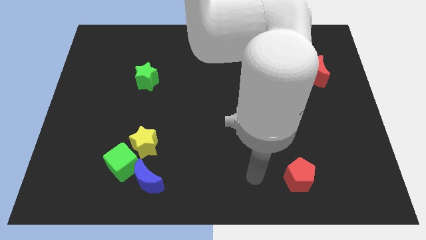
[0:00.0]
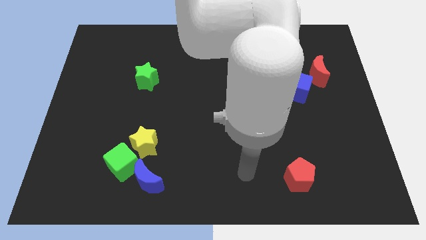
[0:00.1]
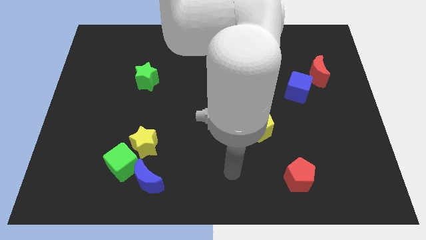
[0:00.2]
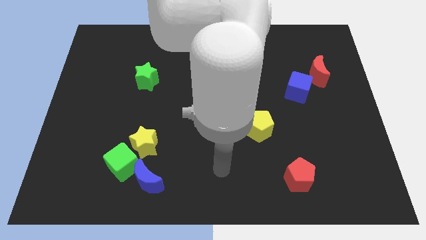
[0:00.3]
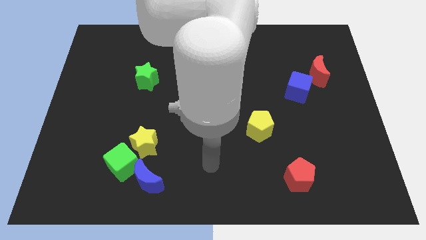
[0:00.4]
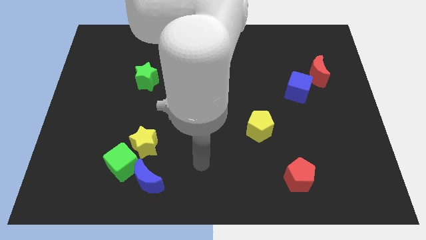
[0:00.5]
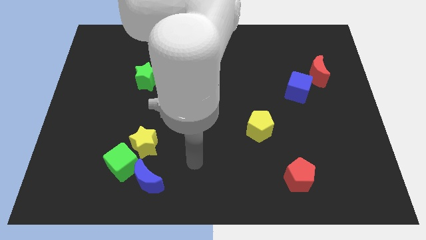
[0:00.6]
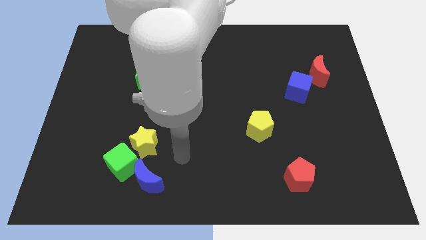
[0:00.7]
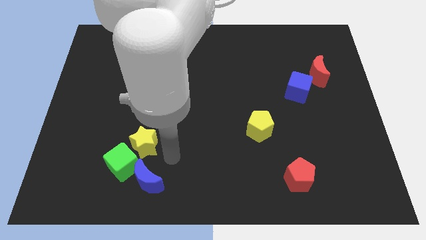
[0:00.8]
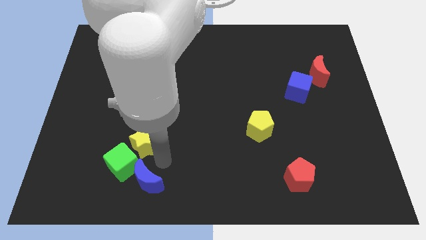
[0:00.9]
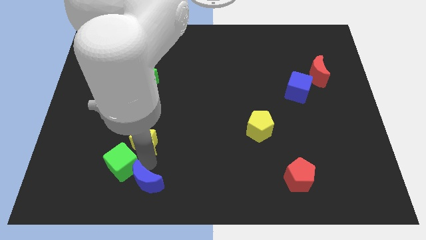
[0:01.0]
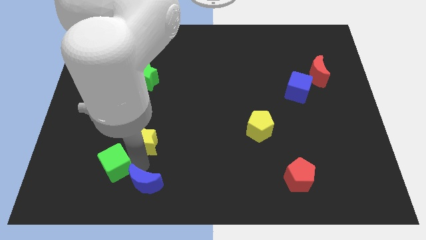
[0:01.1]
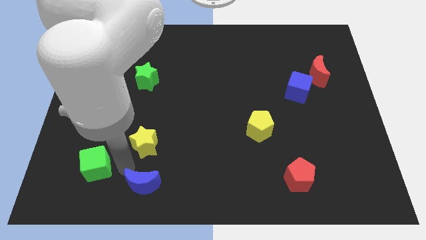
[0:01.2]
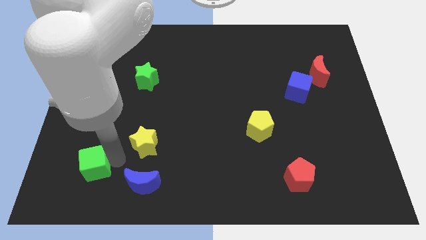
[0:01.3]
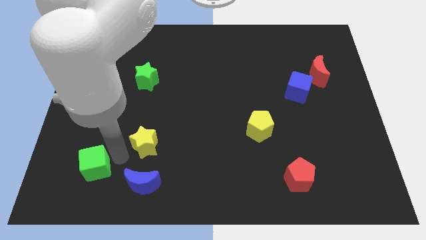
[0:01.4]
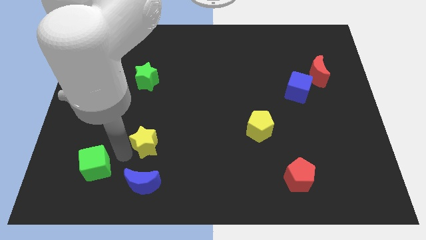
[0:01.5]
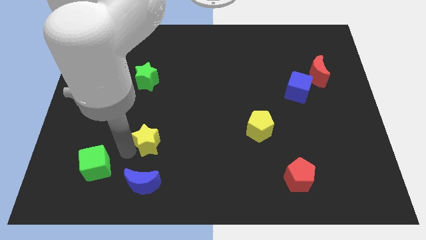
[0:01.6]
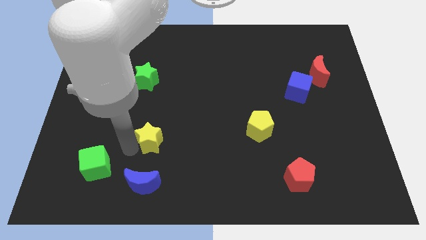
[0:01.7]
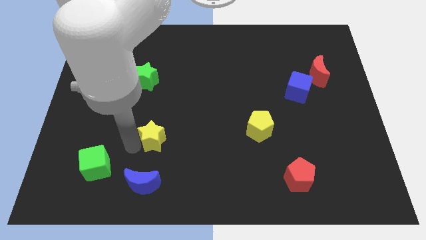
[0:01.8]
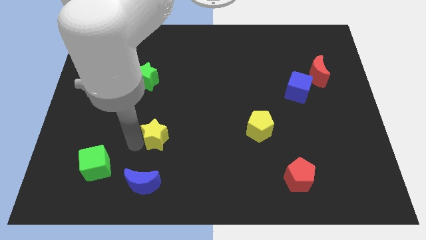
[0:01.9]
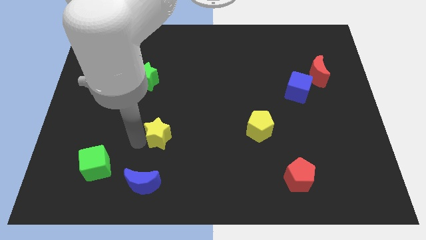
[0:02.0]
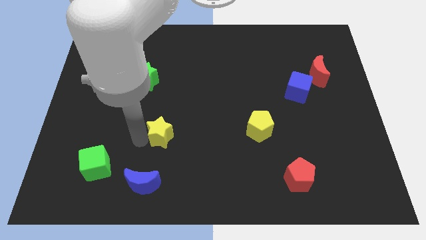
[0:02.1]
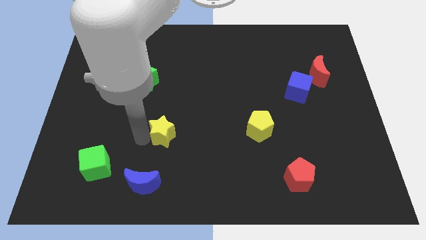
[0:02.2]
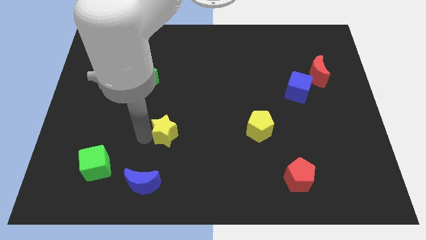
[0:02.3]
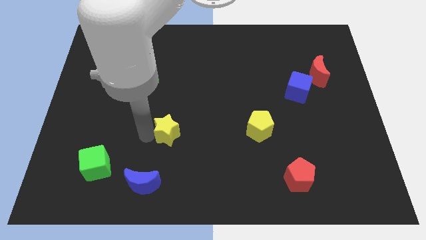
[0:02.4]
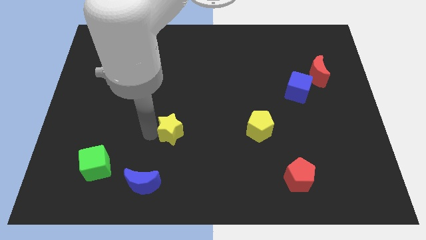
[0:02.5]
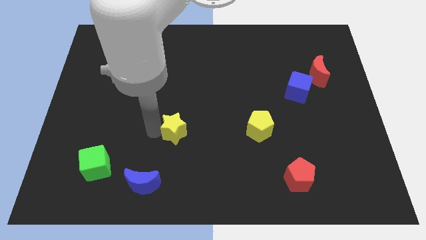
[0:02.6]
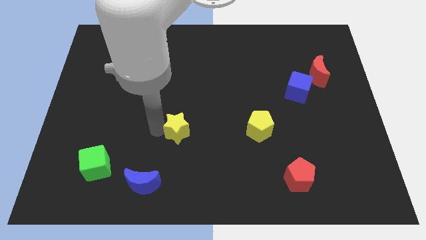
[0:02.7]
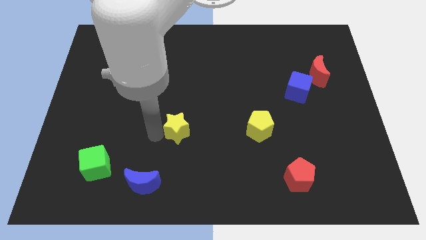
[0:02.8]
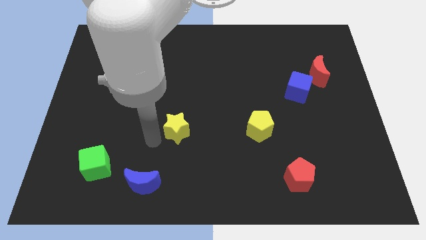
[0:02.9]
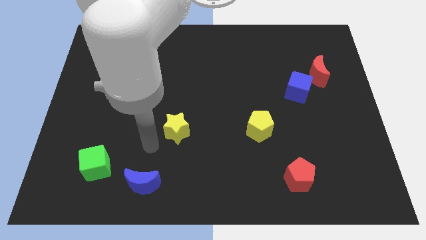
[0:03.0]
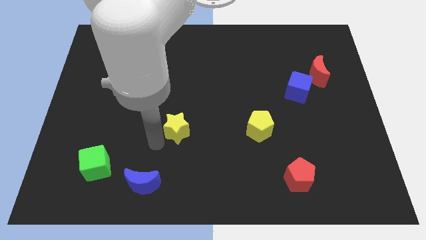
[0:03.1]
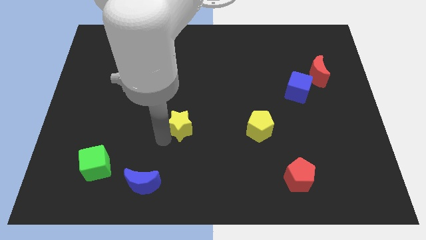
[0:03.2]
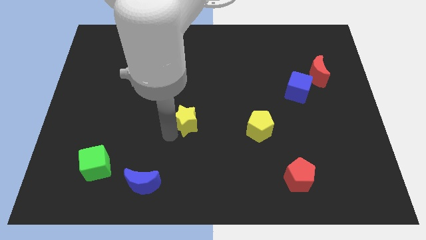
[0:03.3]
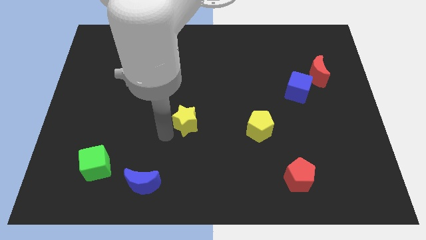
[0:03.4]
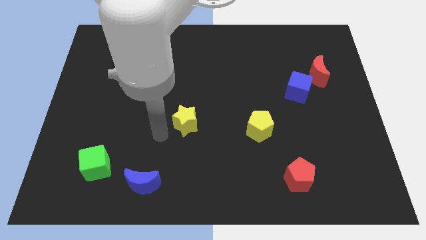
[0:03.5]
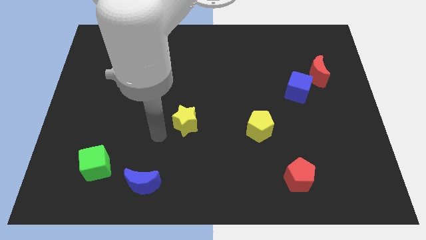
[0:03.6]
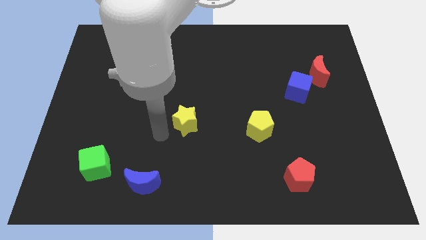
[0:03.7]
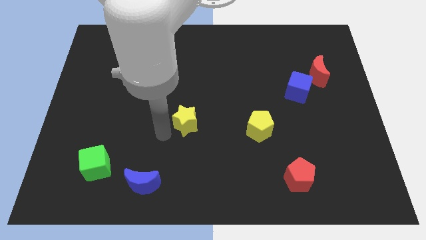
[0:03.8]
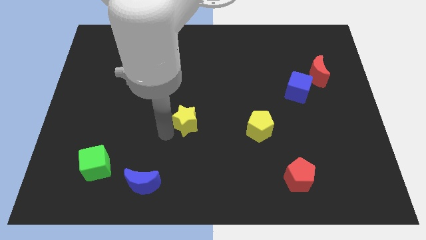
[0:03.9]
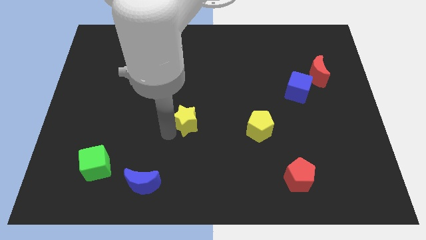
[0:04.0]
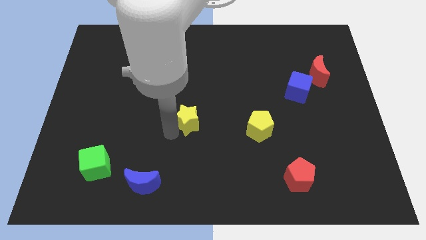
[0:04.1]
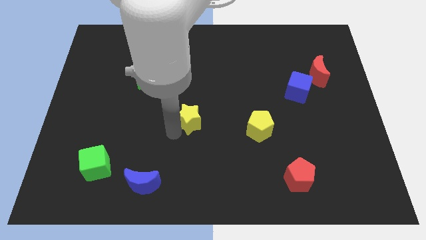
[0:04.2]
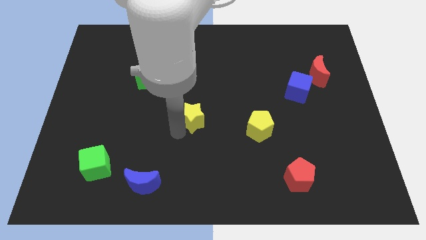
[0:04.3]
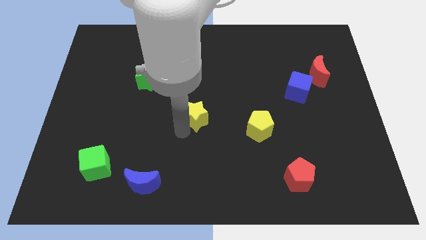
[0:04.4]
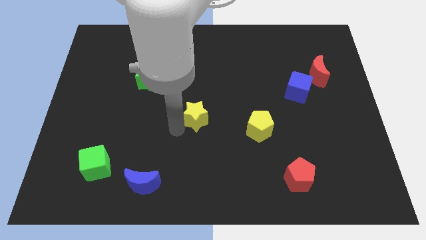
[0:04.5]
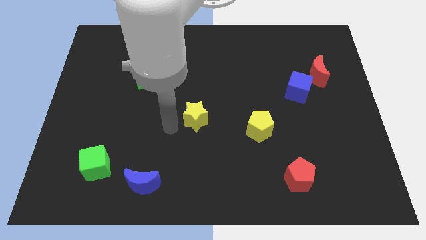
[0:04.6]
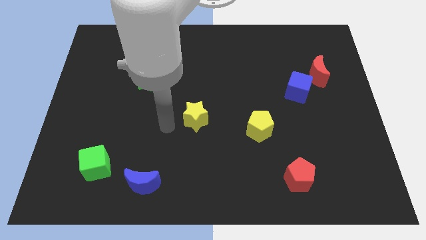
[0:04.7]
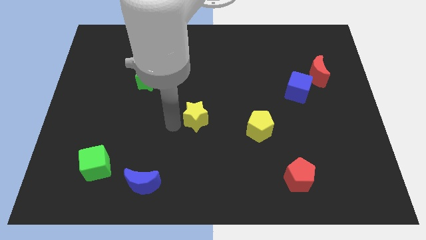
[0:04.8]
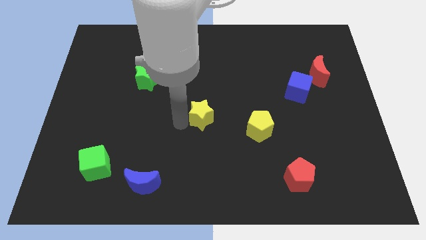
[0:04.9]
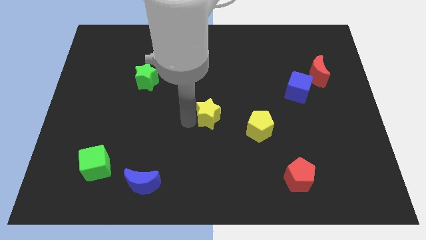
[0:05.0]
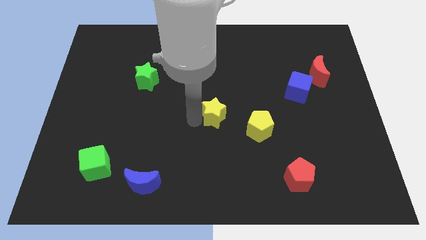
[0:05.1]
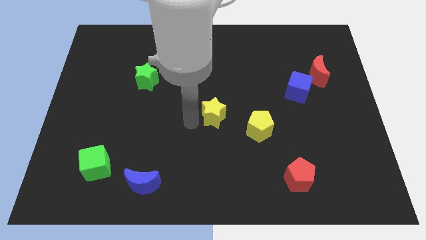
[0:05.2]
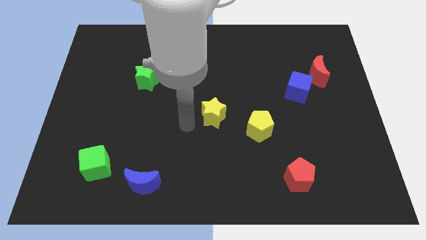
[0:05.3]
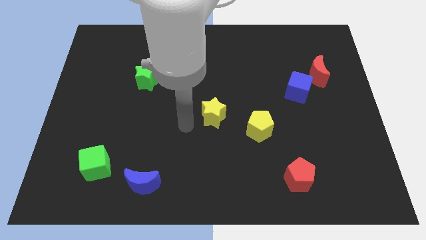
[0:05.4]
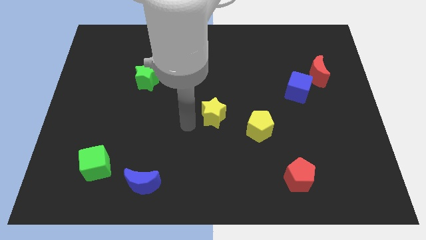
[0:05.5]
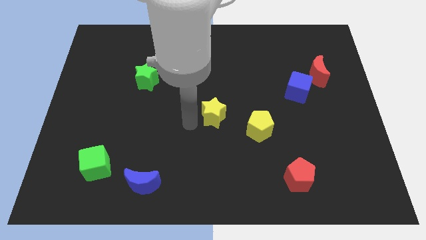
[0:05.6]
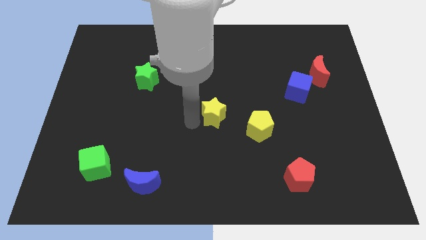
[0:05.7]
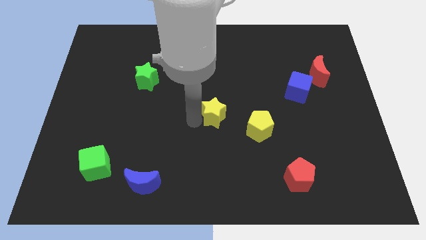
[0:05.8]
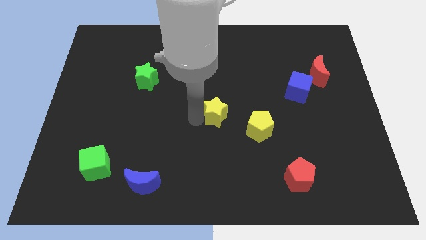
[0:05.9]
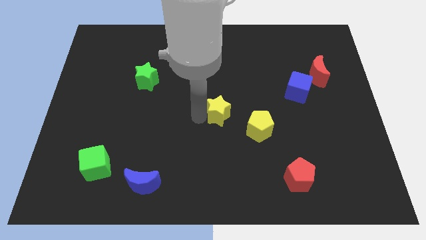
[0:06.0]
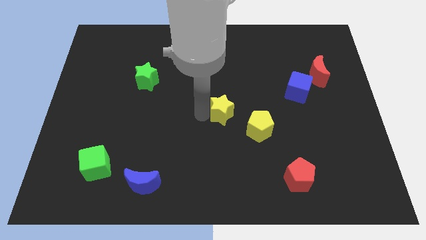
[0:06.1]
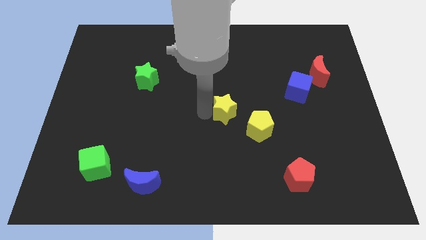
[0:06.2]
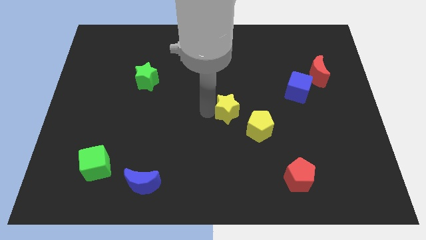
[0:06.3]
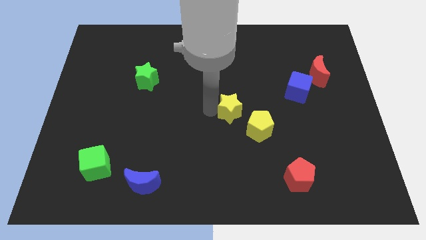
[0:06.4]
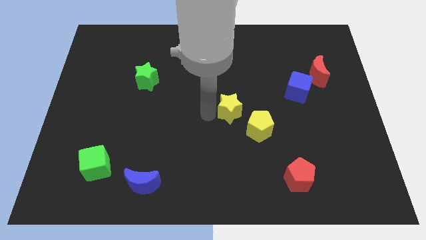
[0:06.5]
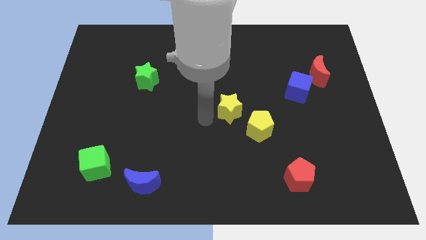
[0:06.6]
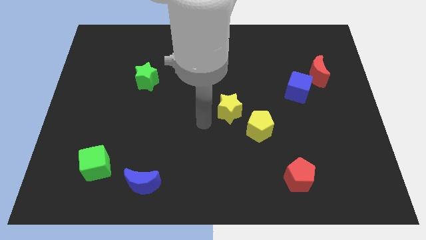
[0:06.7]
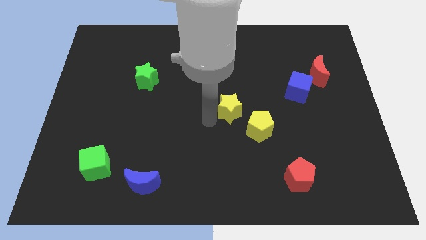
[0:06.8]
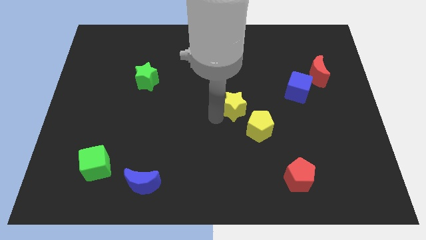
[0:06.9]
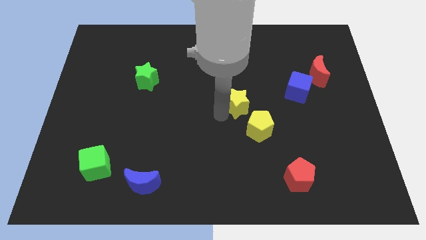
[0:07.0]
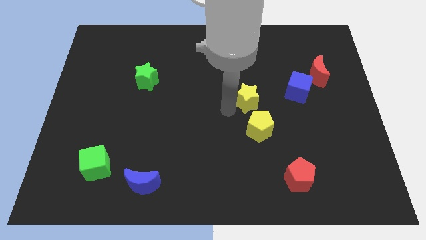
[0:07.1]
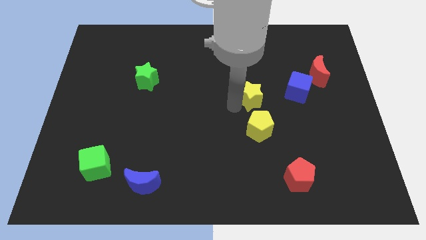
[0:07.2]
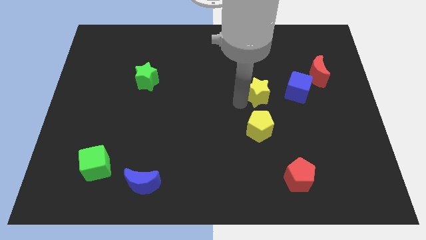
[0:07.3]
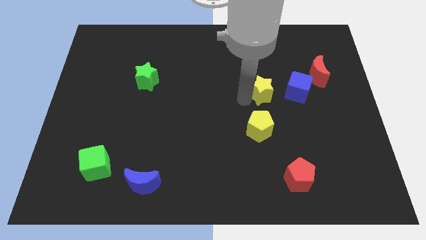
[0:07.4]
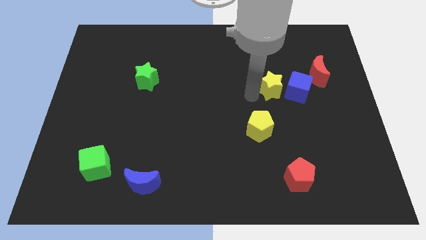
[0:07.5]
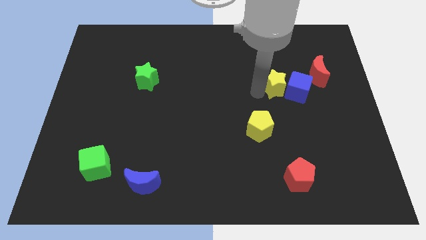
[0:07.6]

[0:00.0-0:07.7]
put the yellow star close to the blue cube

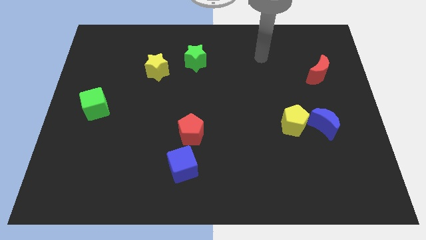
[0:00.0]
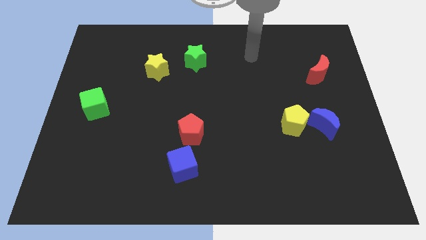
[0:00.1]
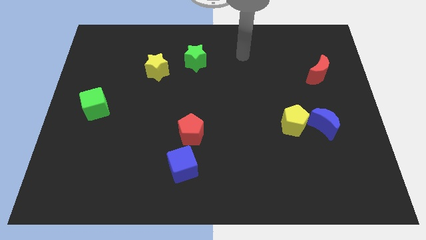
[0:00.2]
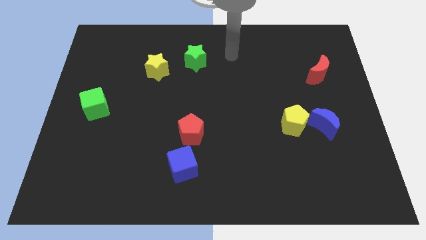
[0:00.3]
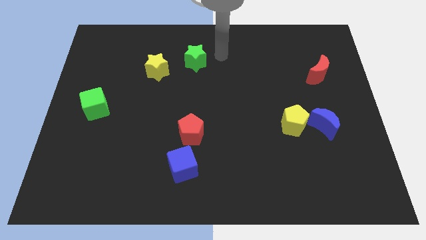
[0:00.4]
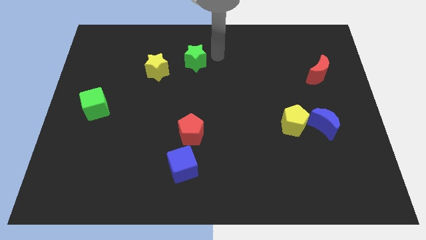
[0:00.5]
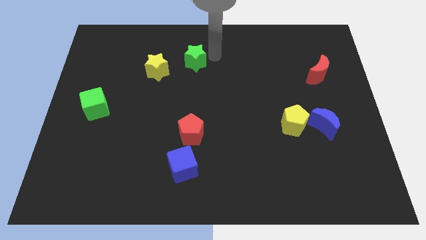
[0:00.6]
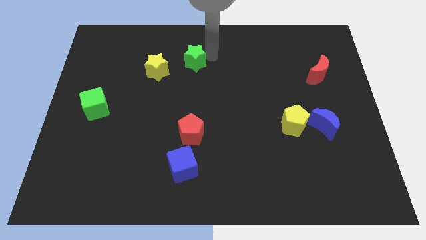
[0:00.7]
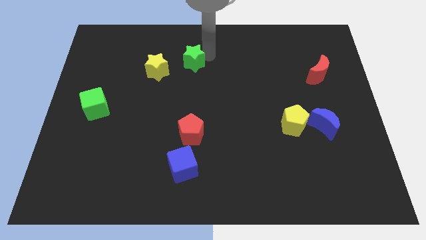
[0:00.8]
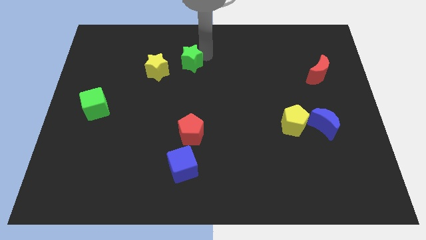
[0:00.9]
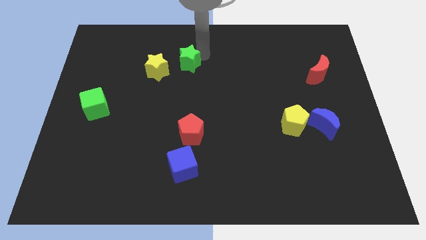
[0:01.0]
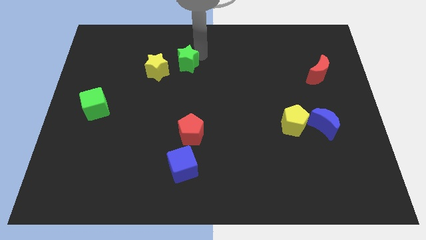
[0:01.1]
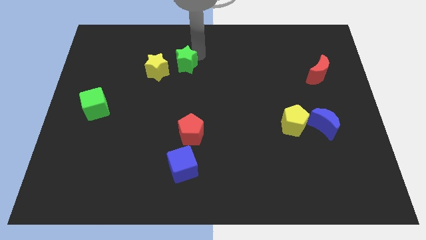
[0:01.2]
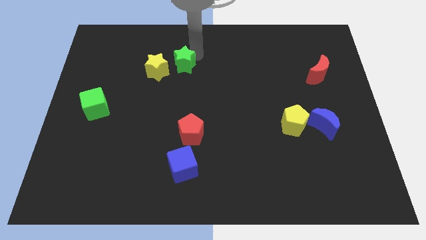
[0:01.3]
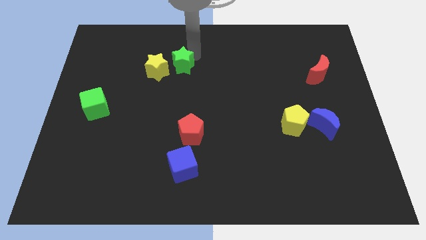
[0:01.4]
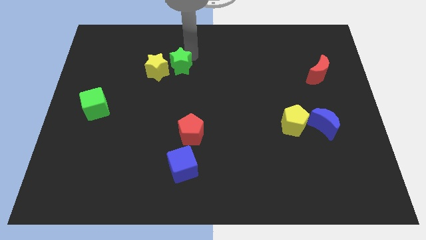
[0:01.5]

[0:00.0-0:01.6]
slide the green star close to the yellow star
